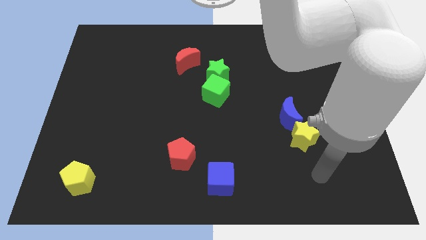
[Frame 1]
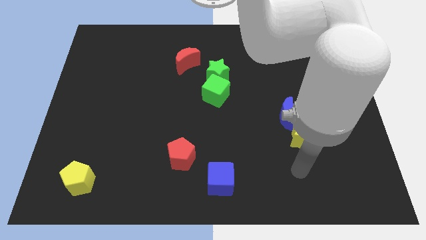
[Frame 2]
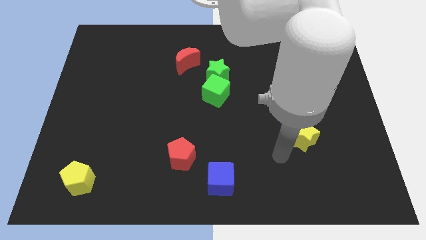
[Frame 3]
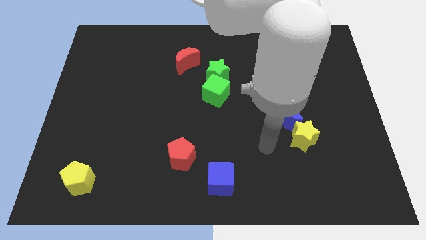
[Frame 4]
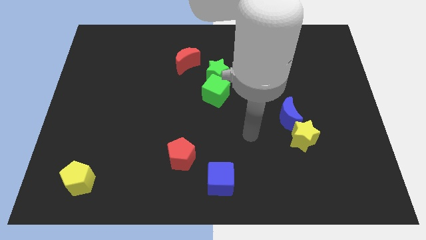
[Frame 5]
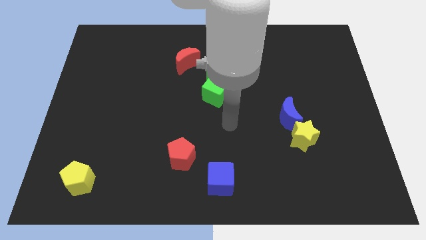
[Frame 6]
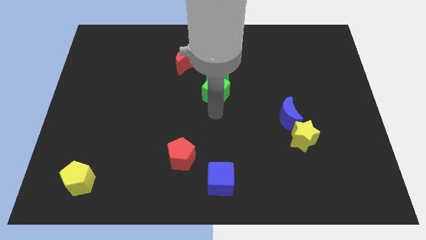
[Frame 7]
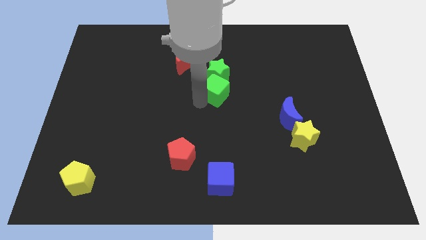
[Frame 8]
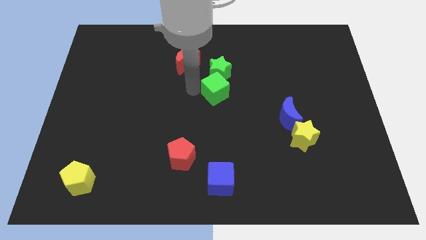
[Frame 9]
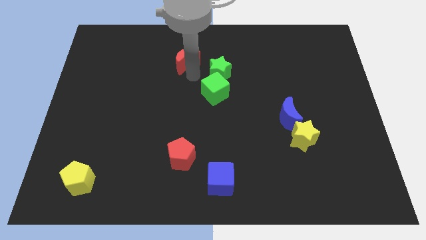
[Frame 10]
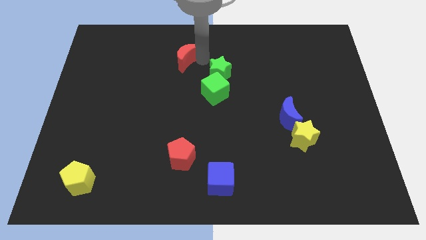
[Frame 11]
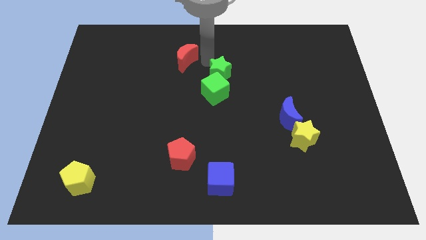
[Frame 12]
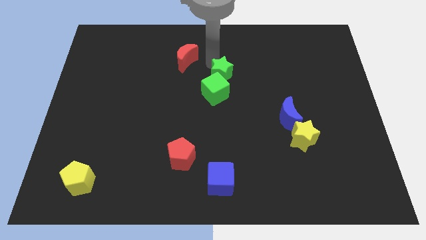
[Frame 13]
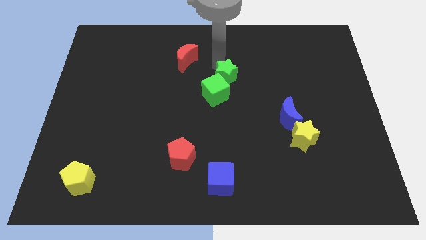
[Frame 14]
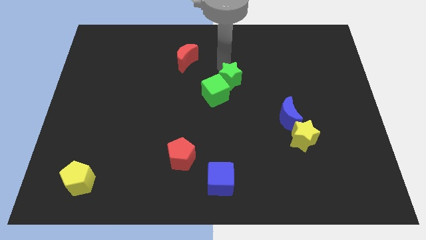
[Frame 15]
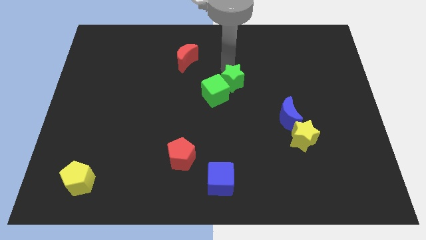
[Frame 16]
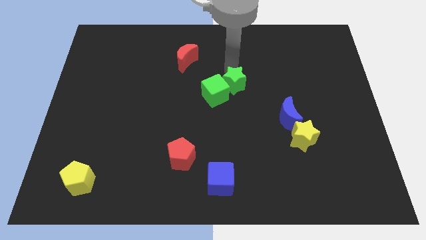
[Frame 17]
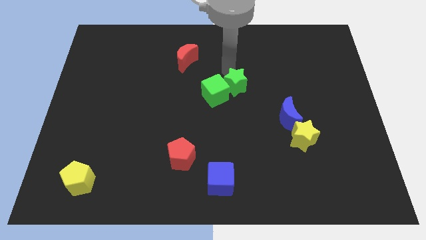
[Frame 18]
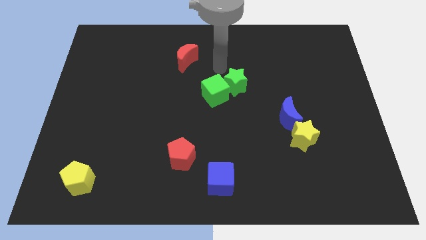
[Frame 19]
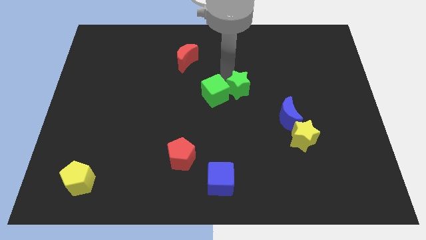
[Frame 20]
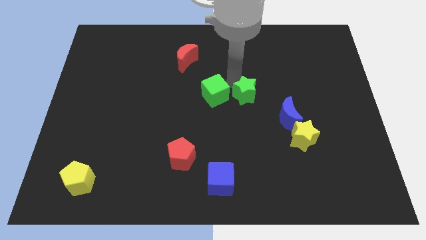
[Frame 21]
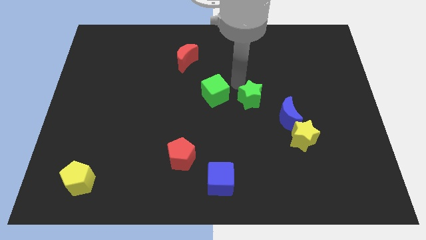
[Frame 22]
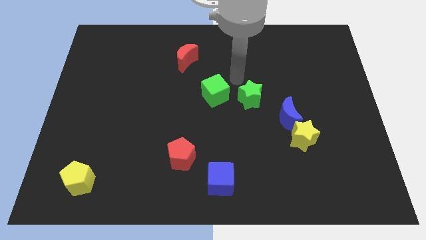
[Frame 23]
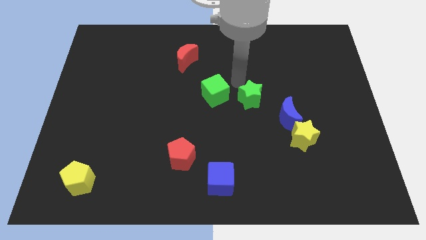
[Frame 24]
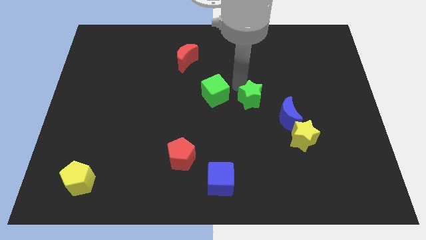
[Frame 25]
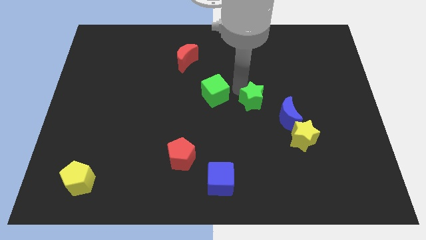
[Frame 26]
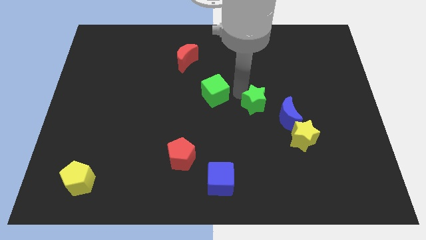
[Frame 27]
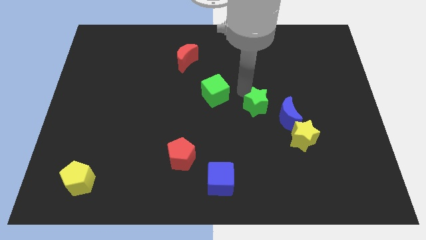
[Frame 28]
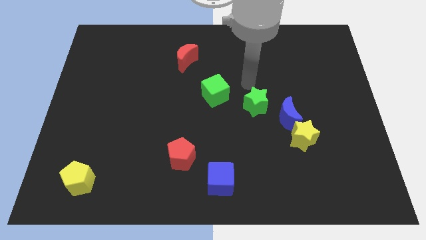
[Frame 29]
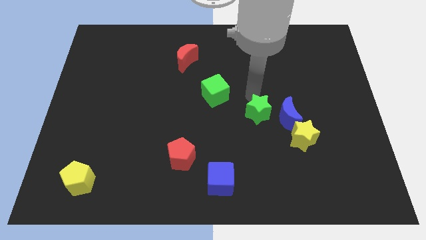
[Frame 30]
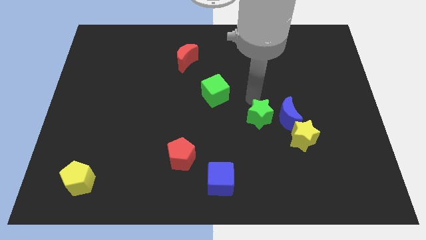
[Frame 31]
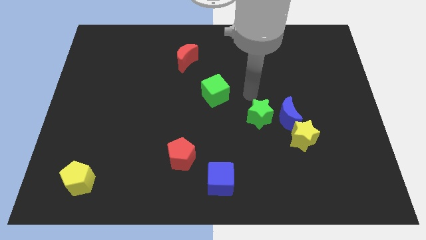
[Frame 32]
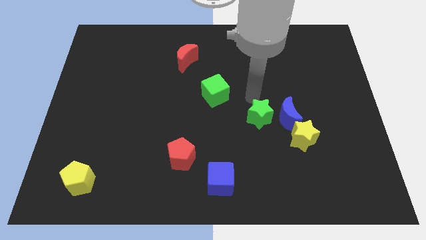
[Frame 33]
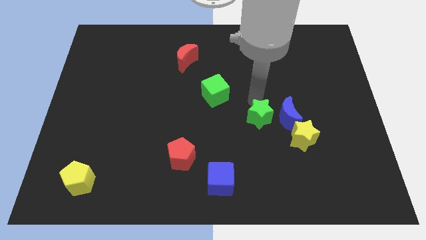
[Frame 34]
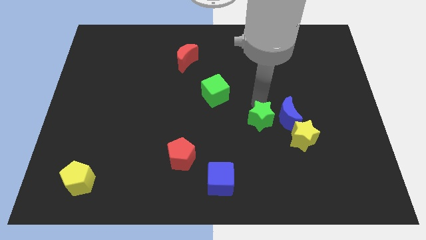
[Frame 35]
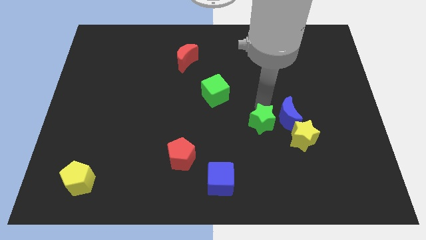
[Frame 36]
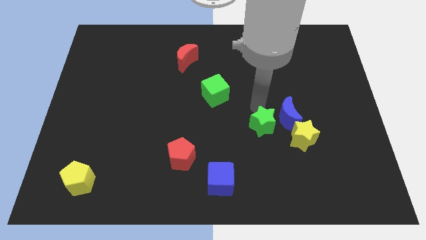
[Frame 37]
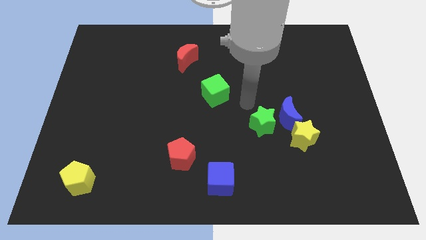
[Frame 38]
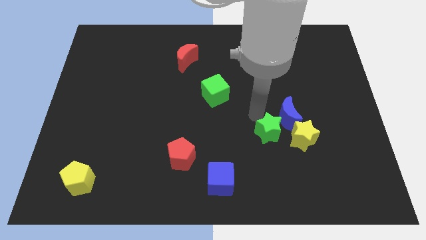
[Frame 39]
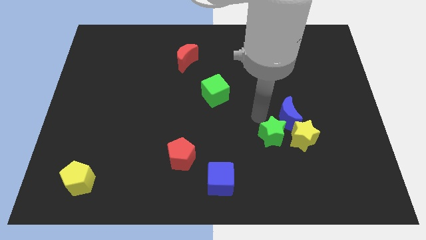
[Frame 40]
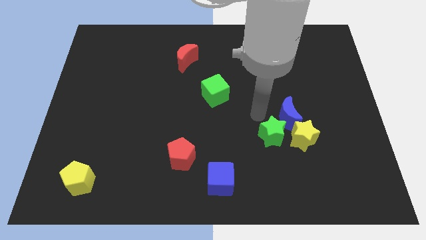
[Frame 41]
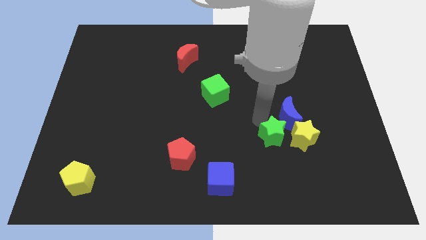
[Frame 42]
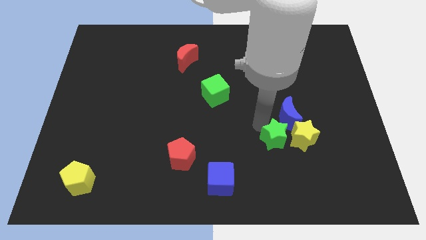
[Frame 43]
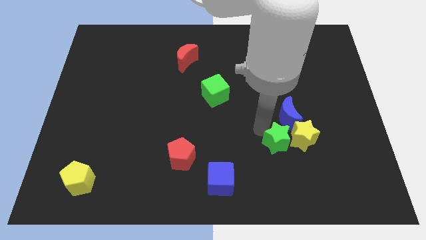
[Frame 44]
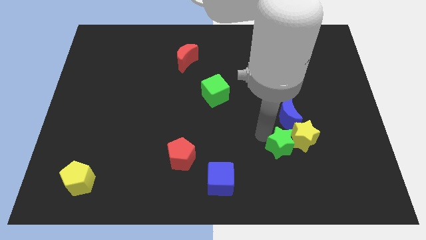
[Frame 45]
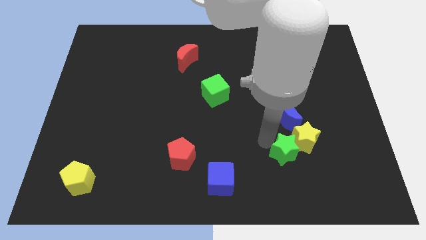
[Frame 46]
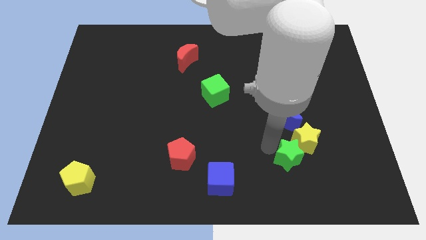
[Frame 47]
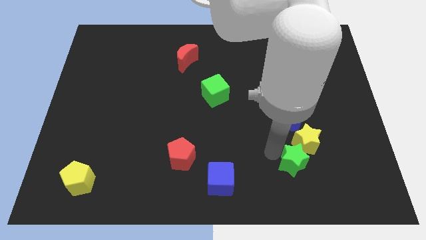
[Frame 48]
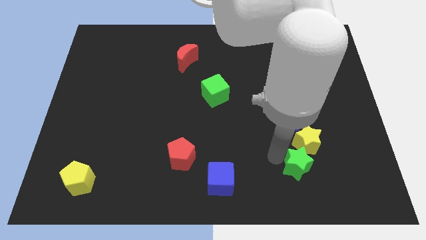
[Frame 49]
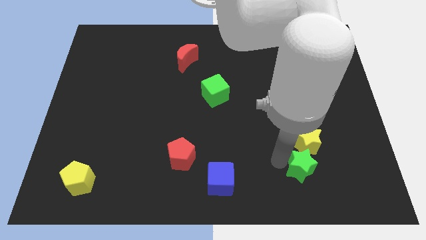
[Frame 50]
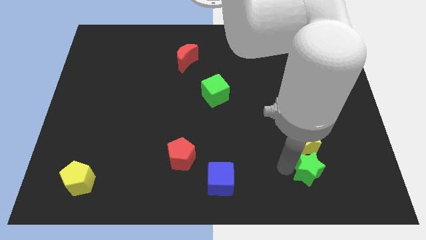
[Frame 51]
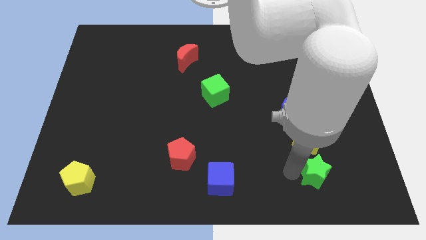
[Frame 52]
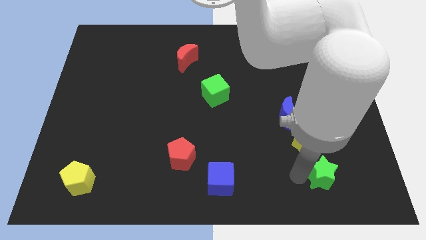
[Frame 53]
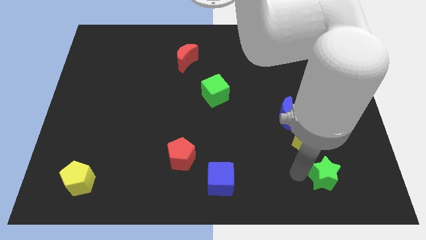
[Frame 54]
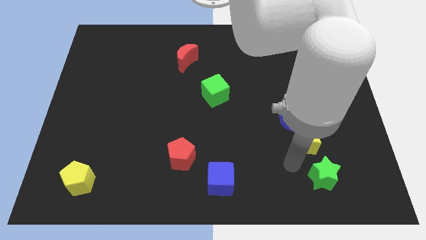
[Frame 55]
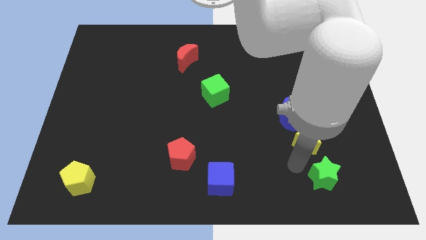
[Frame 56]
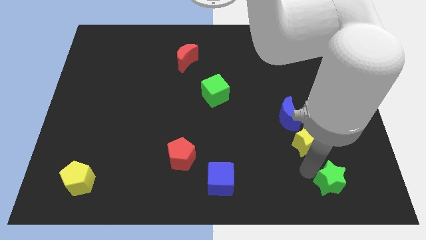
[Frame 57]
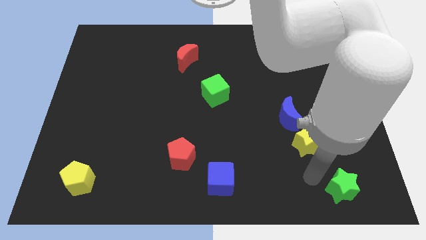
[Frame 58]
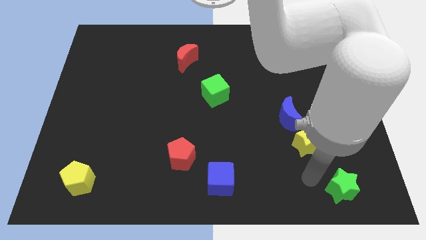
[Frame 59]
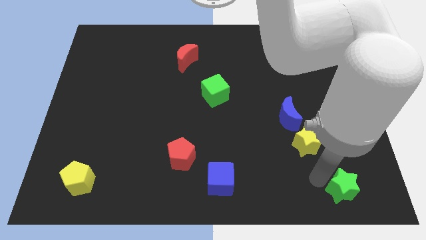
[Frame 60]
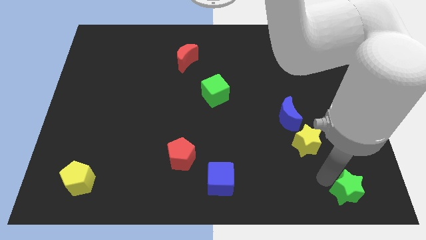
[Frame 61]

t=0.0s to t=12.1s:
slide the green star to the lower right corner
